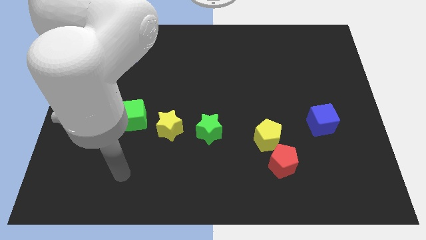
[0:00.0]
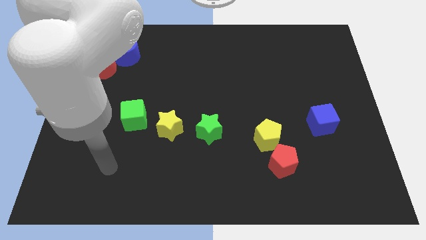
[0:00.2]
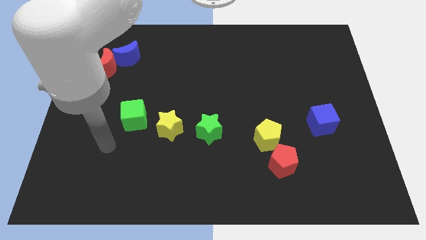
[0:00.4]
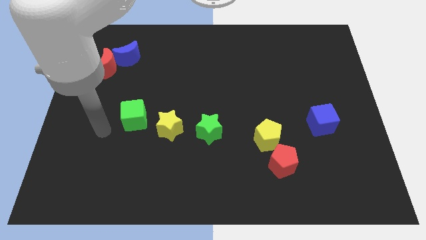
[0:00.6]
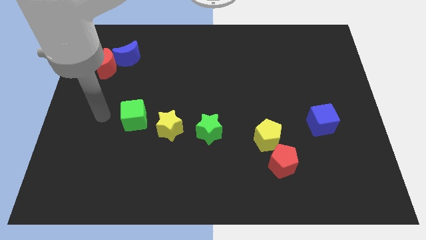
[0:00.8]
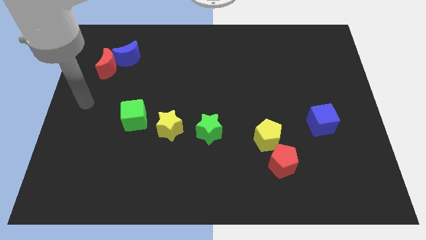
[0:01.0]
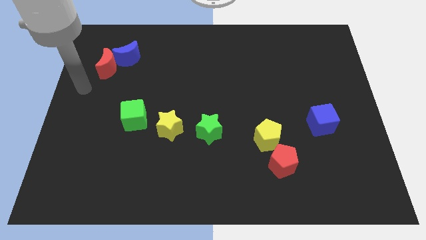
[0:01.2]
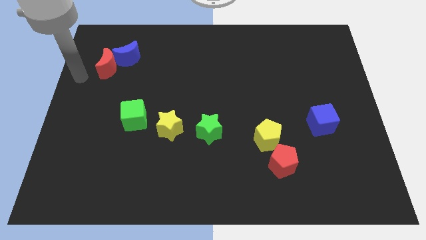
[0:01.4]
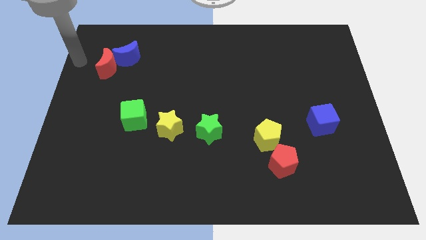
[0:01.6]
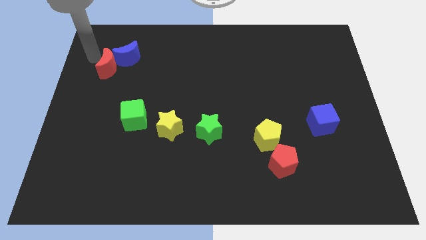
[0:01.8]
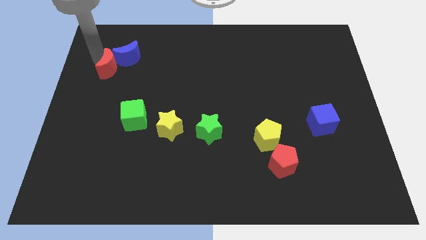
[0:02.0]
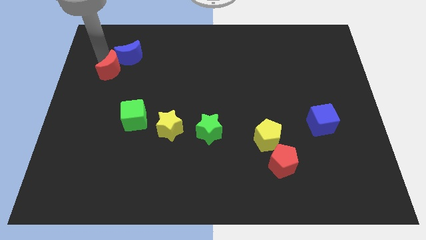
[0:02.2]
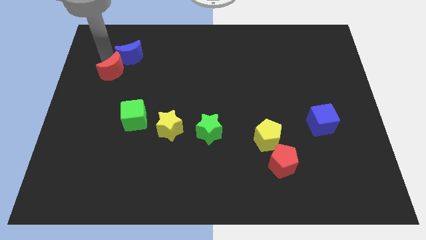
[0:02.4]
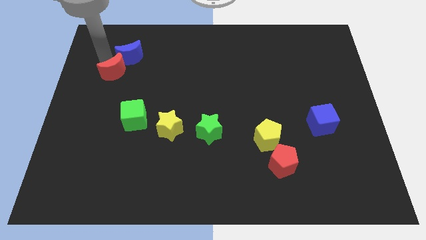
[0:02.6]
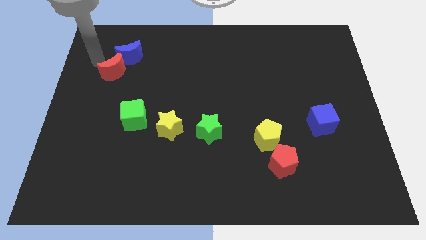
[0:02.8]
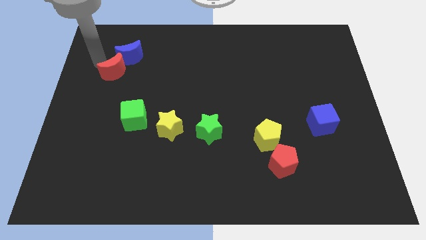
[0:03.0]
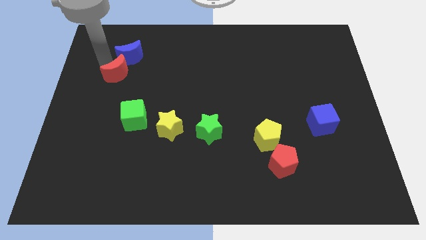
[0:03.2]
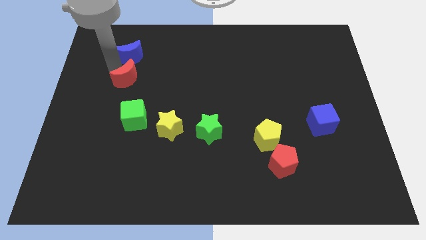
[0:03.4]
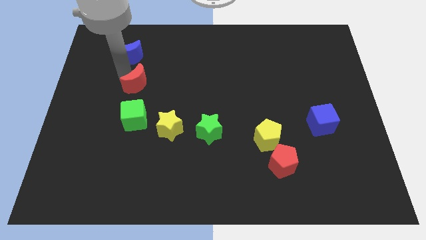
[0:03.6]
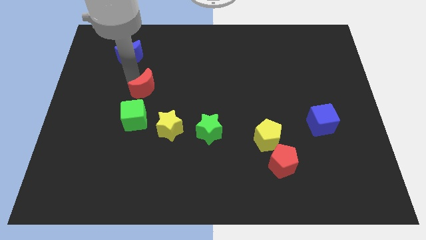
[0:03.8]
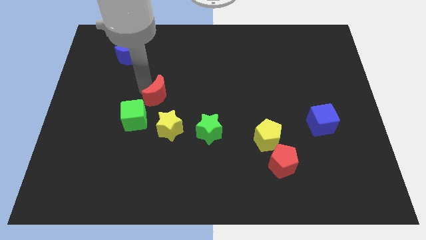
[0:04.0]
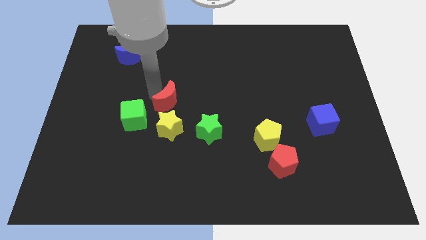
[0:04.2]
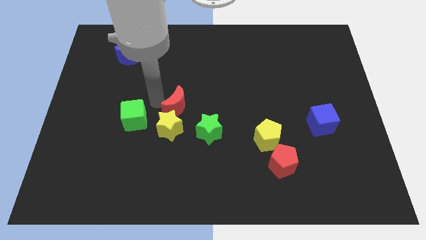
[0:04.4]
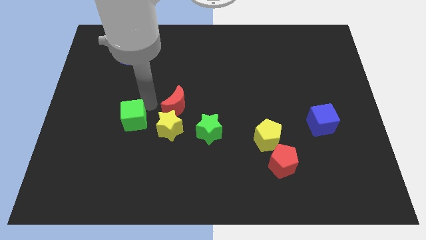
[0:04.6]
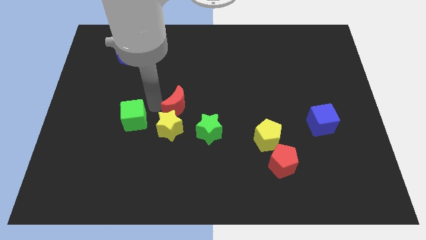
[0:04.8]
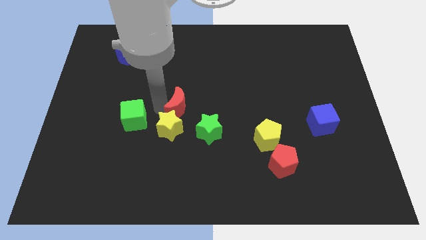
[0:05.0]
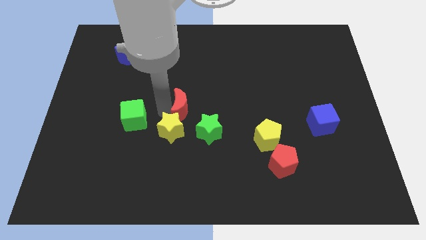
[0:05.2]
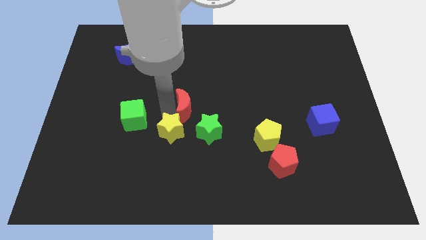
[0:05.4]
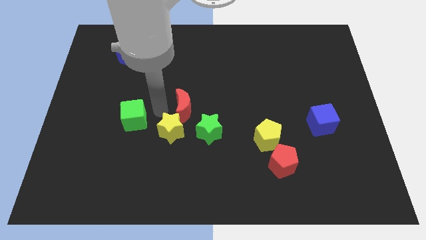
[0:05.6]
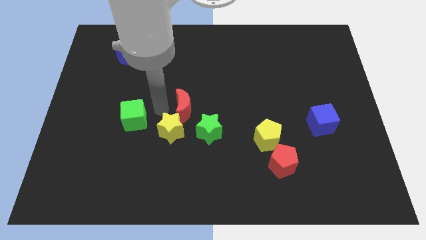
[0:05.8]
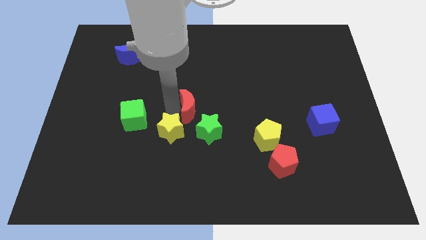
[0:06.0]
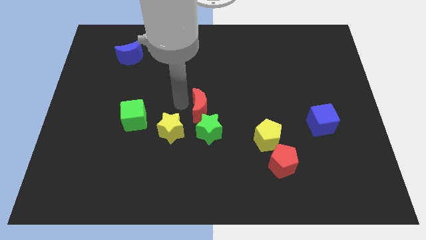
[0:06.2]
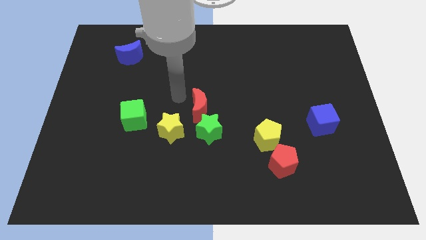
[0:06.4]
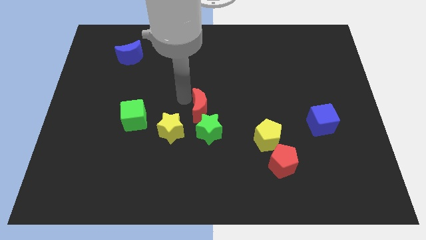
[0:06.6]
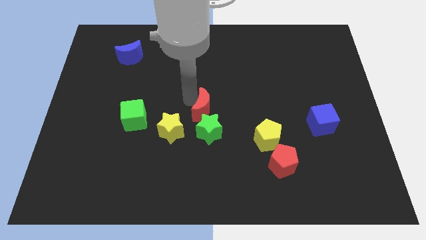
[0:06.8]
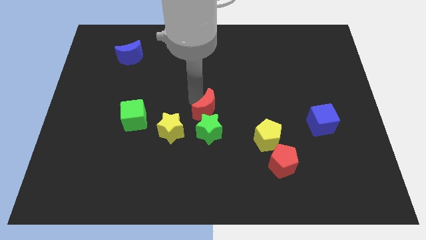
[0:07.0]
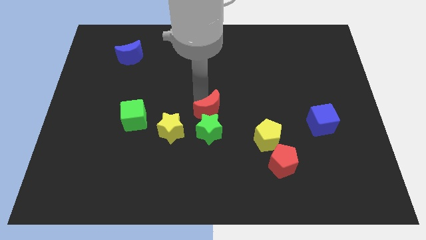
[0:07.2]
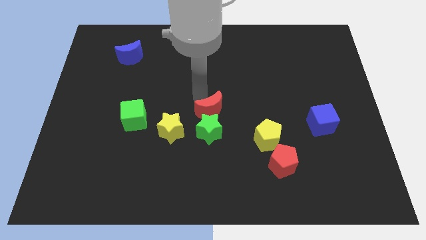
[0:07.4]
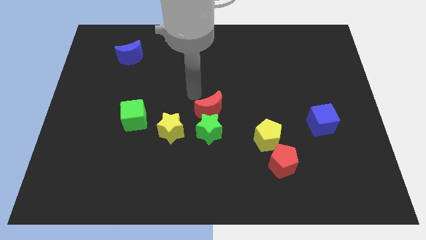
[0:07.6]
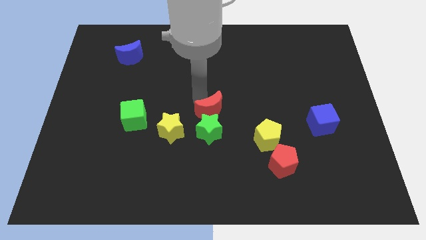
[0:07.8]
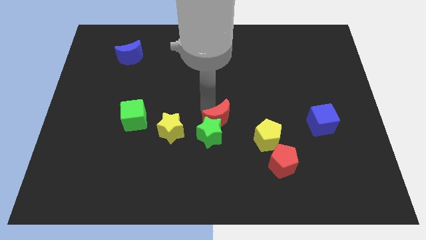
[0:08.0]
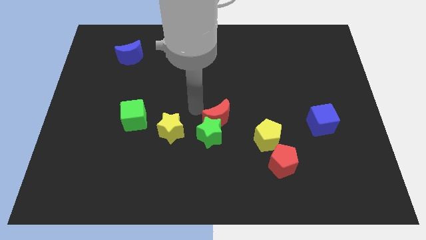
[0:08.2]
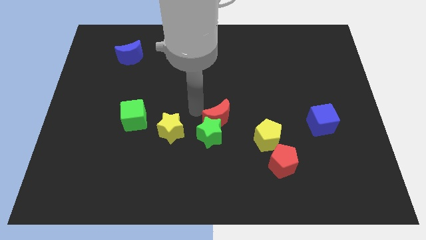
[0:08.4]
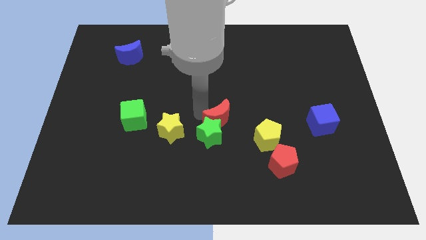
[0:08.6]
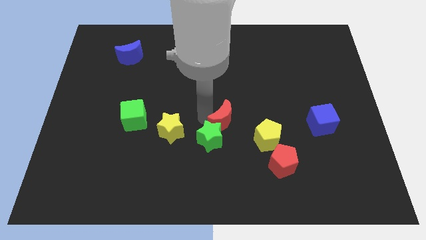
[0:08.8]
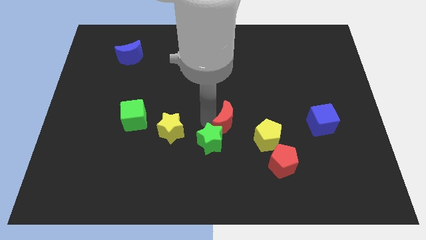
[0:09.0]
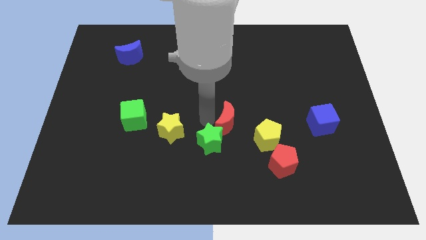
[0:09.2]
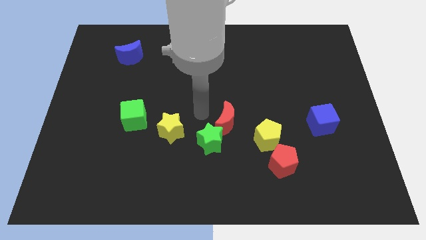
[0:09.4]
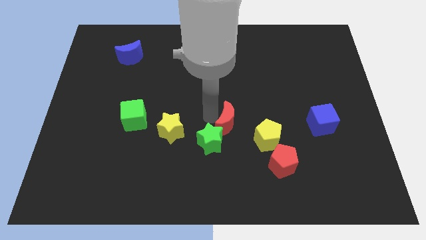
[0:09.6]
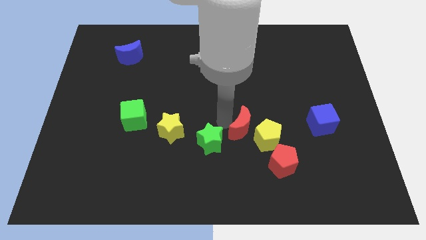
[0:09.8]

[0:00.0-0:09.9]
slide the red moon towards the yellow pentagon

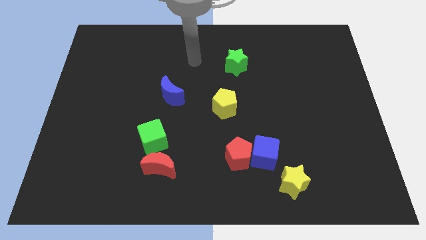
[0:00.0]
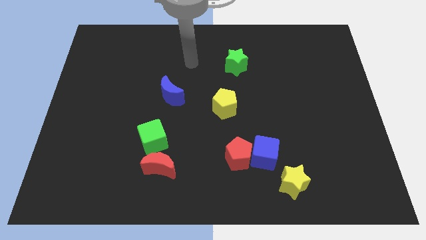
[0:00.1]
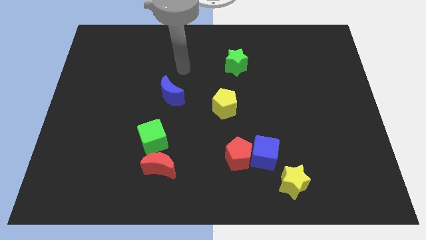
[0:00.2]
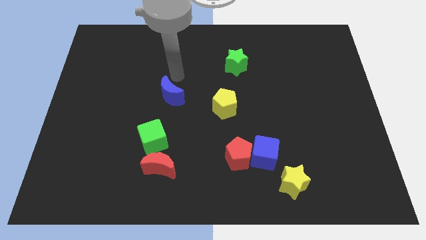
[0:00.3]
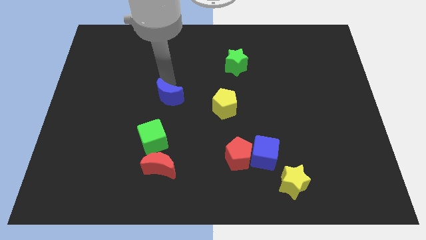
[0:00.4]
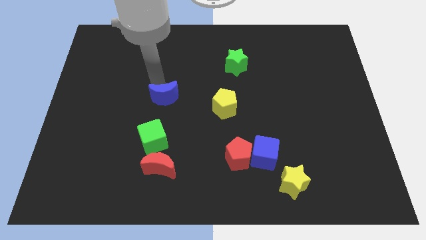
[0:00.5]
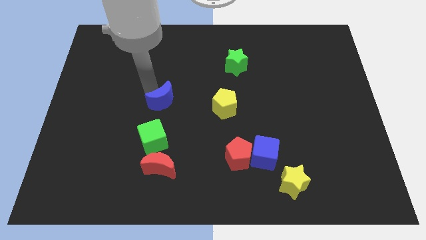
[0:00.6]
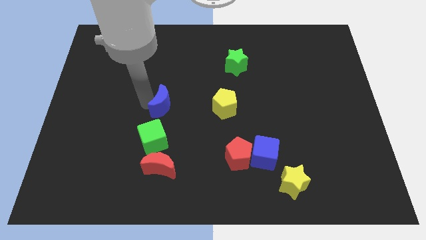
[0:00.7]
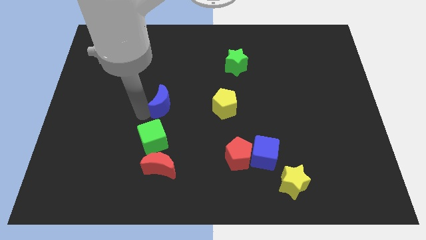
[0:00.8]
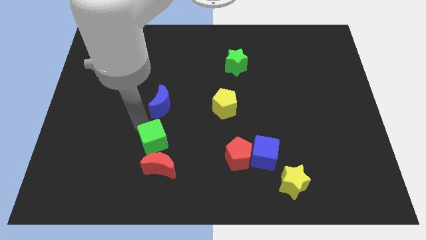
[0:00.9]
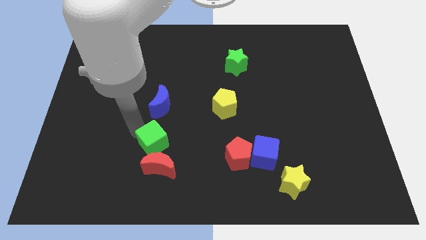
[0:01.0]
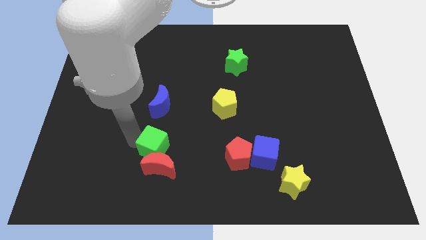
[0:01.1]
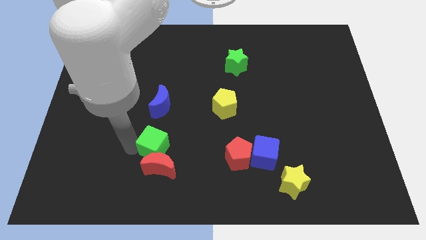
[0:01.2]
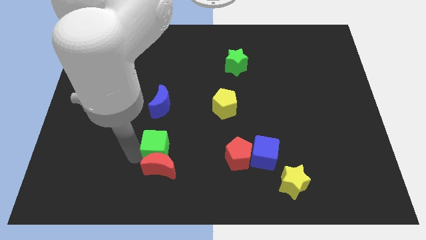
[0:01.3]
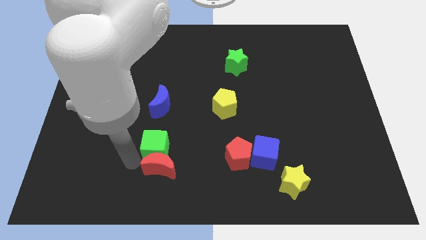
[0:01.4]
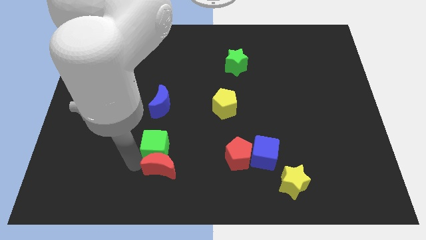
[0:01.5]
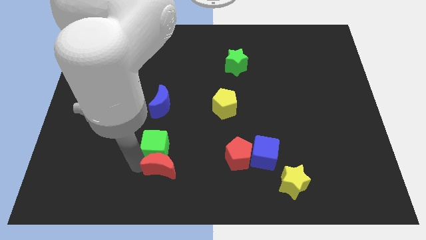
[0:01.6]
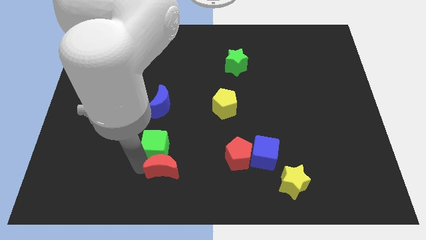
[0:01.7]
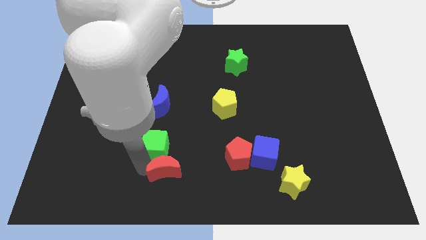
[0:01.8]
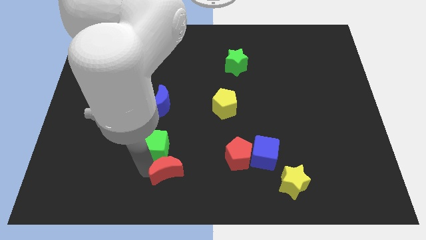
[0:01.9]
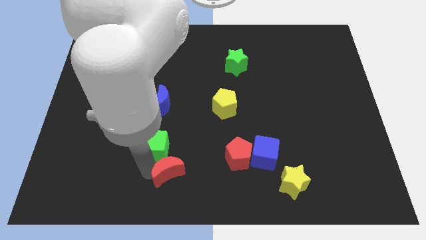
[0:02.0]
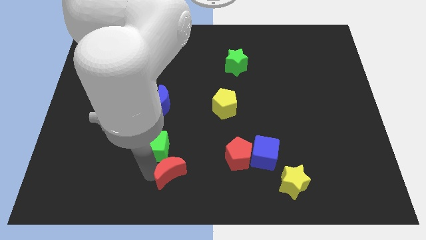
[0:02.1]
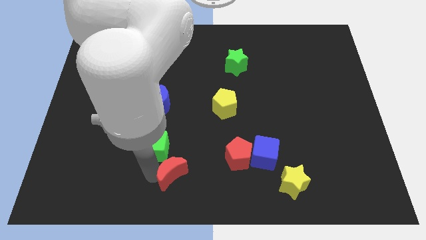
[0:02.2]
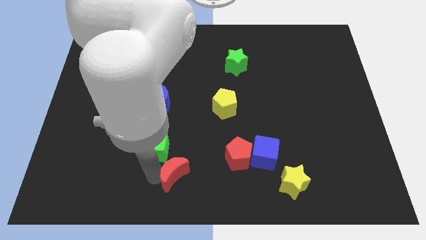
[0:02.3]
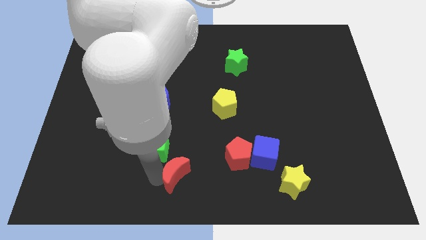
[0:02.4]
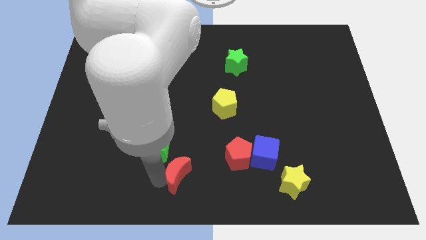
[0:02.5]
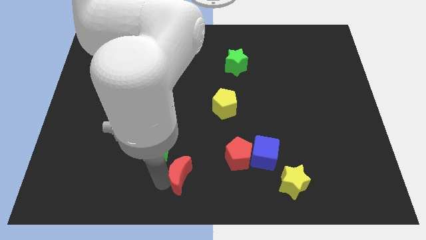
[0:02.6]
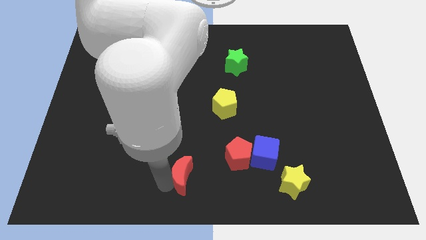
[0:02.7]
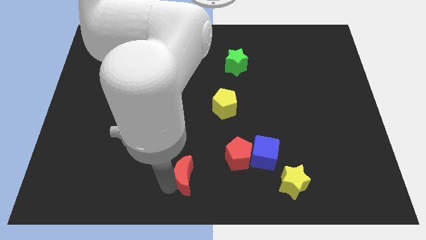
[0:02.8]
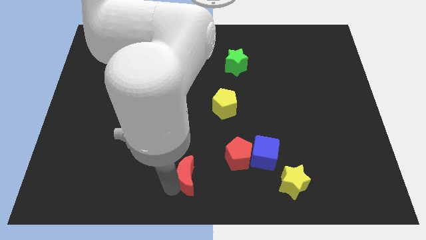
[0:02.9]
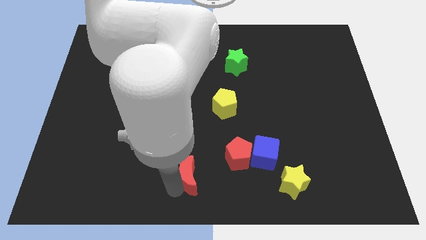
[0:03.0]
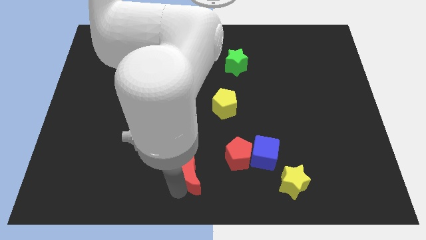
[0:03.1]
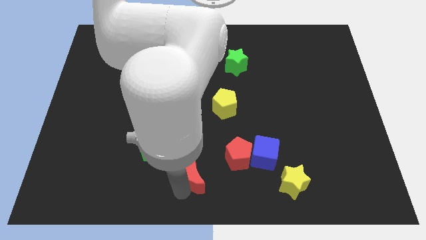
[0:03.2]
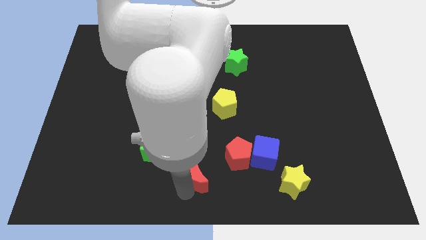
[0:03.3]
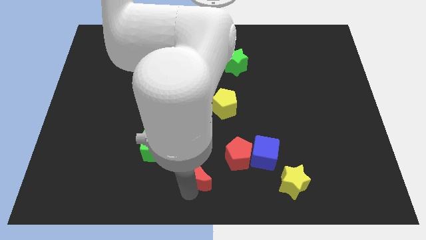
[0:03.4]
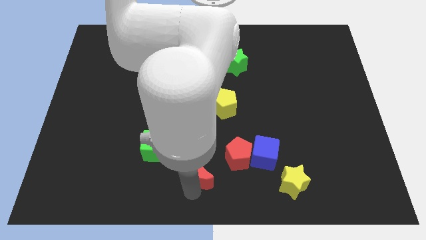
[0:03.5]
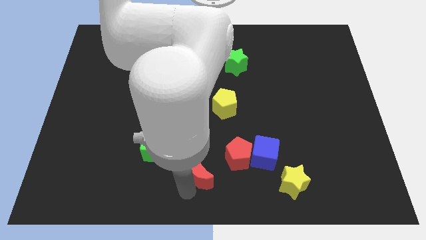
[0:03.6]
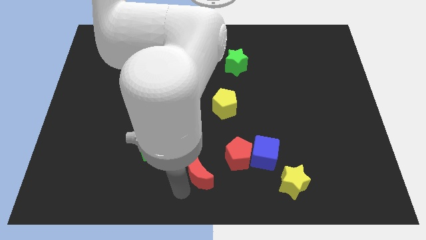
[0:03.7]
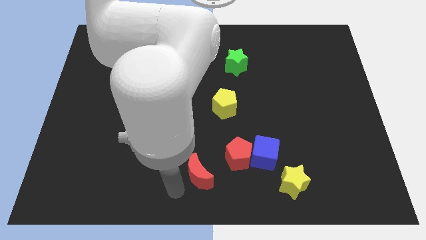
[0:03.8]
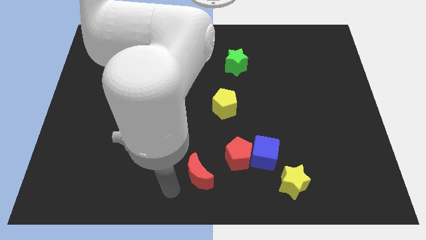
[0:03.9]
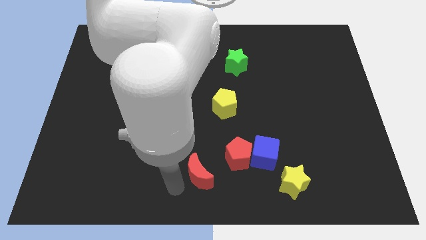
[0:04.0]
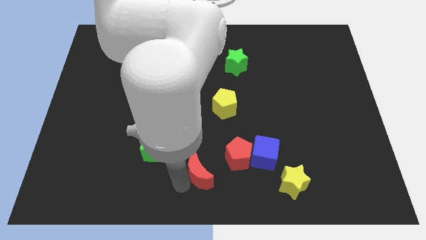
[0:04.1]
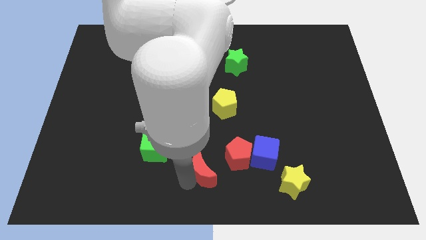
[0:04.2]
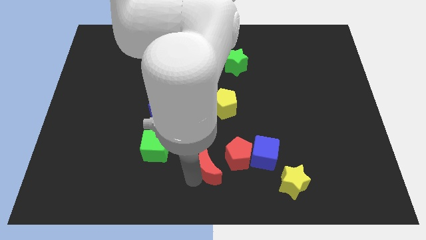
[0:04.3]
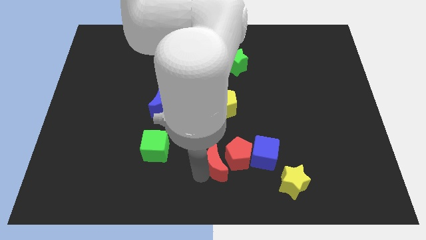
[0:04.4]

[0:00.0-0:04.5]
put the red moon to the red pentagon
